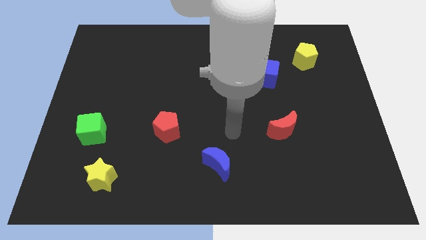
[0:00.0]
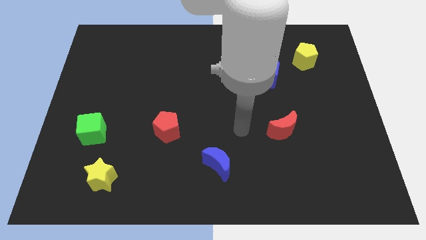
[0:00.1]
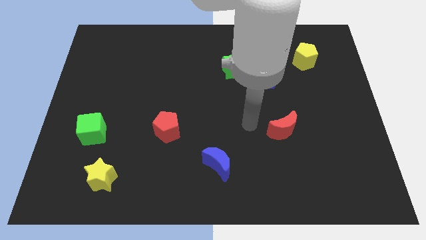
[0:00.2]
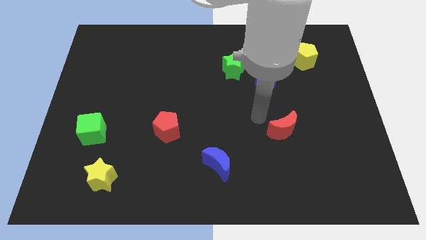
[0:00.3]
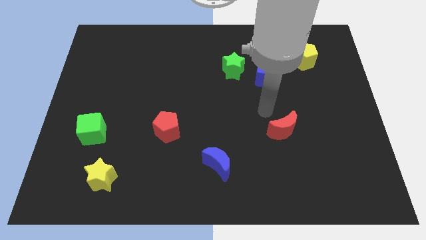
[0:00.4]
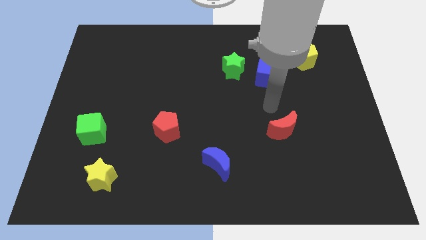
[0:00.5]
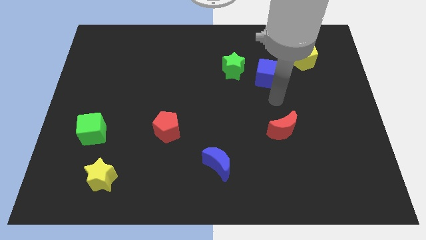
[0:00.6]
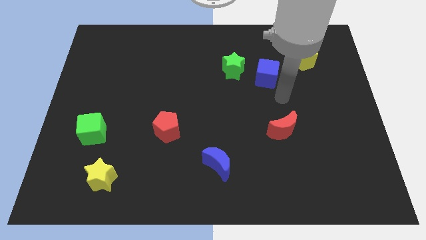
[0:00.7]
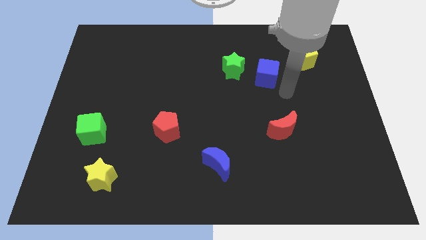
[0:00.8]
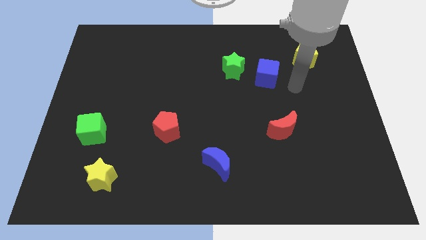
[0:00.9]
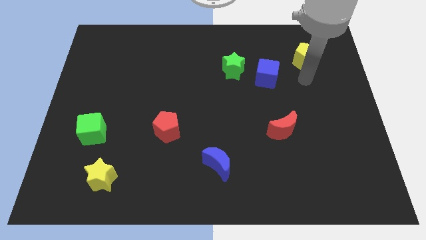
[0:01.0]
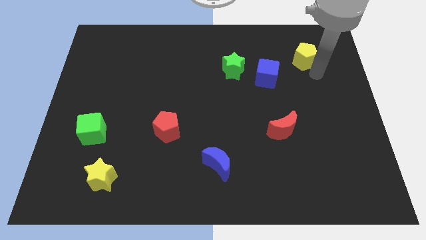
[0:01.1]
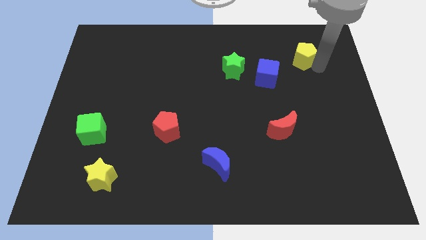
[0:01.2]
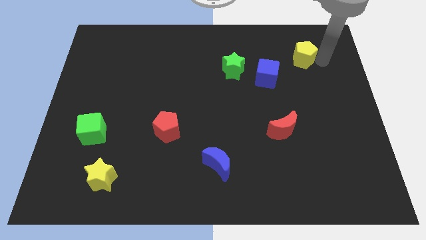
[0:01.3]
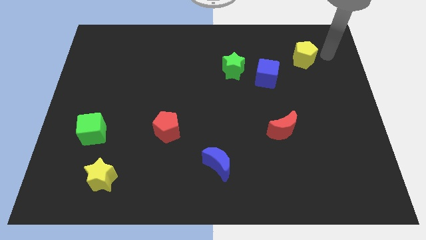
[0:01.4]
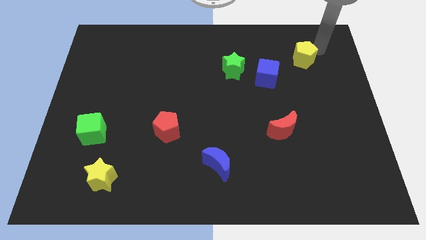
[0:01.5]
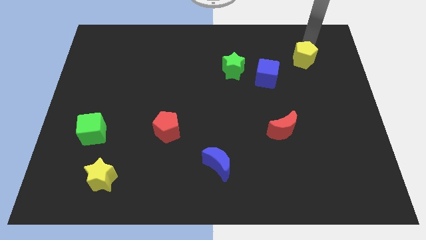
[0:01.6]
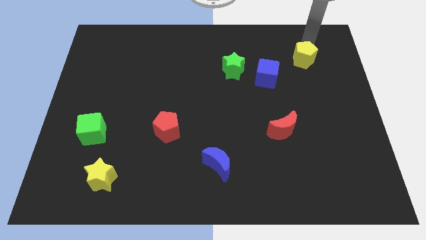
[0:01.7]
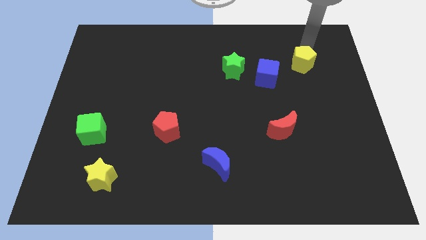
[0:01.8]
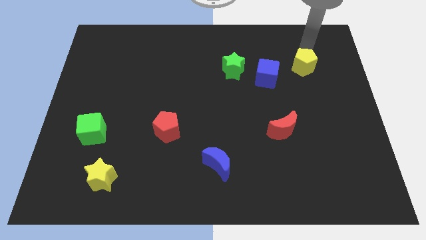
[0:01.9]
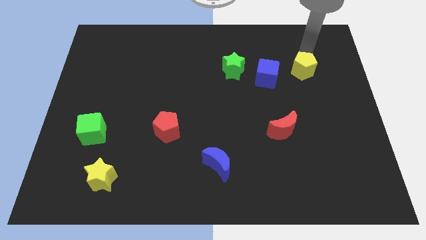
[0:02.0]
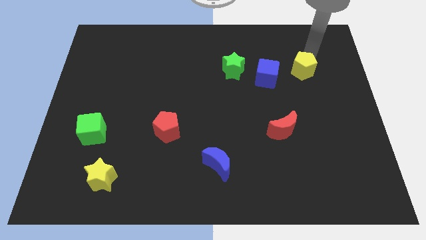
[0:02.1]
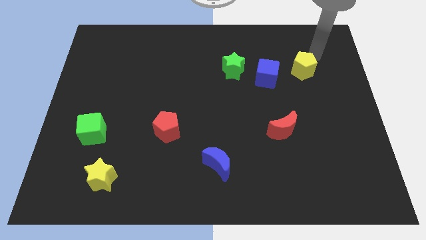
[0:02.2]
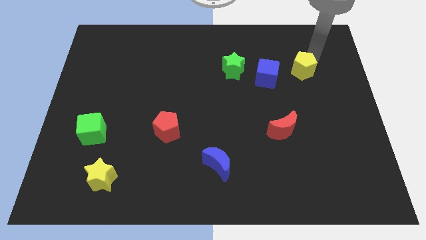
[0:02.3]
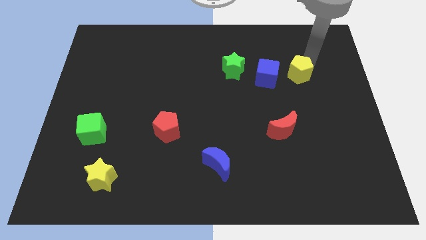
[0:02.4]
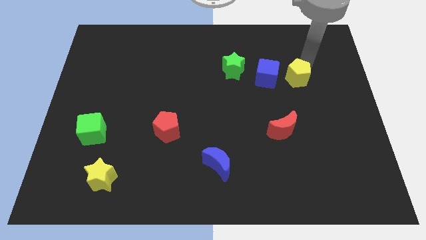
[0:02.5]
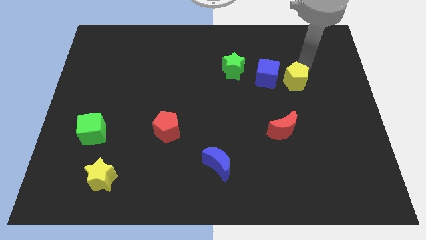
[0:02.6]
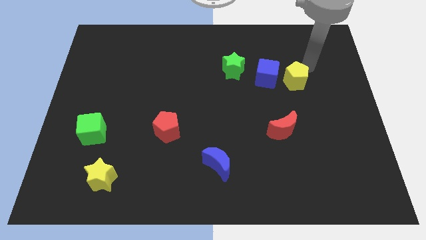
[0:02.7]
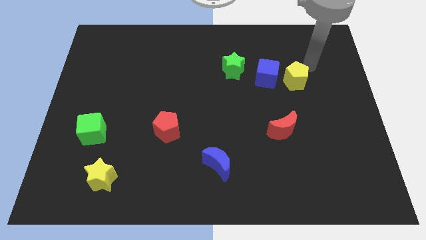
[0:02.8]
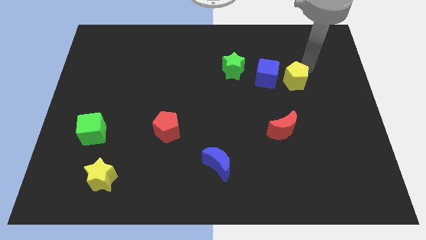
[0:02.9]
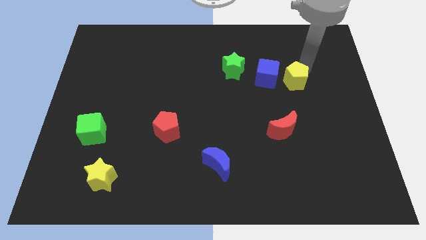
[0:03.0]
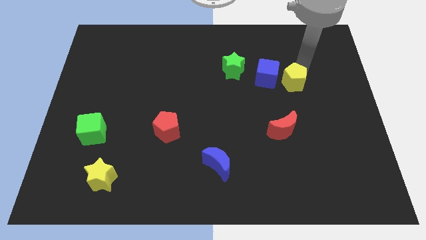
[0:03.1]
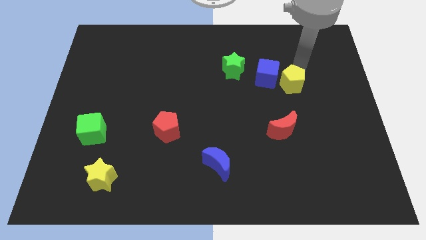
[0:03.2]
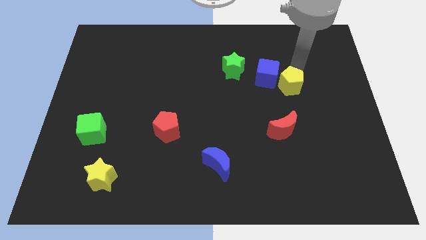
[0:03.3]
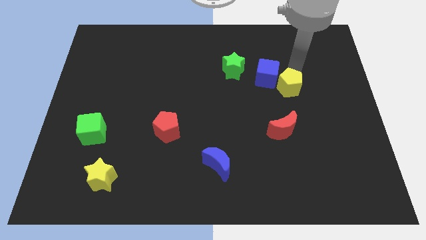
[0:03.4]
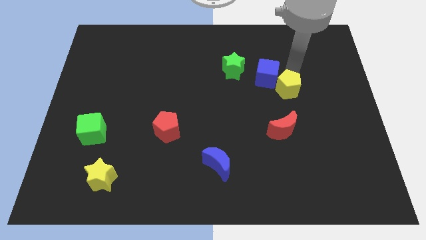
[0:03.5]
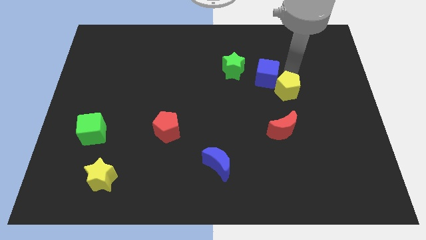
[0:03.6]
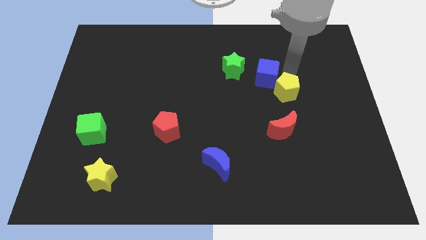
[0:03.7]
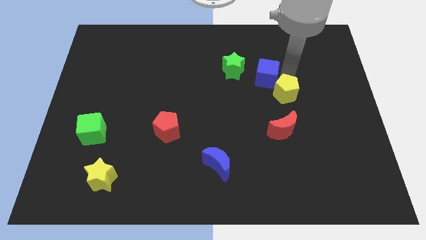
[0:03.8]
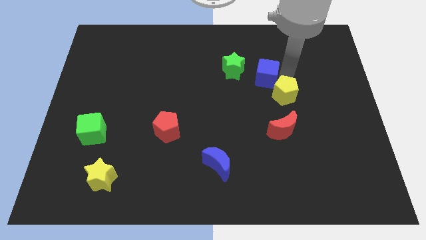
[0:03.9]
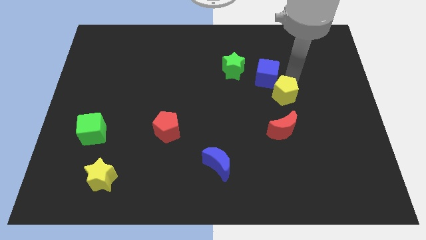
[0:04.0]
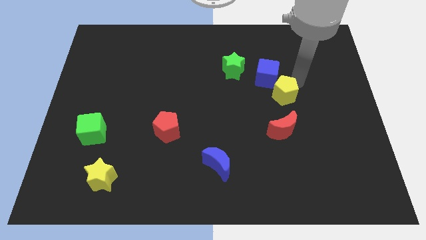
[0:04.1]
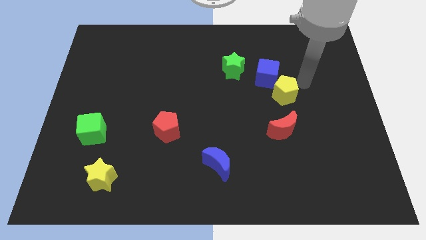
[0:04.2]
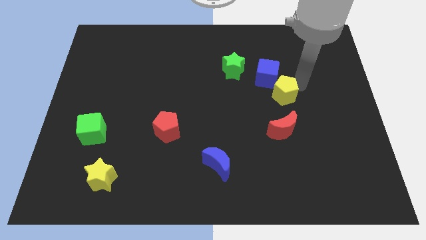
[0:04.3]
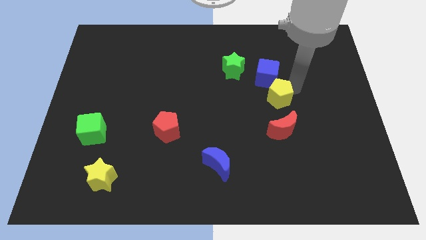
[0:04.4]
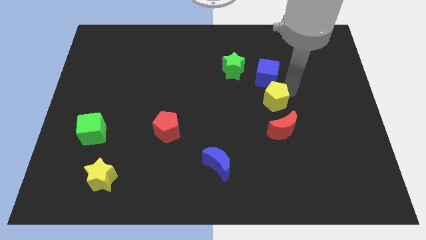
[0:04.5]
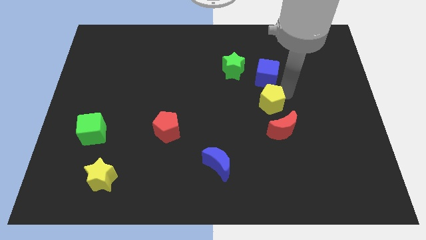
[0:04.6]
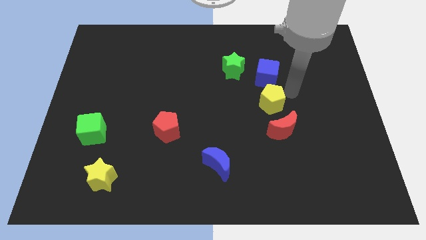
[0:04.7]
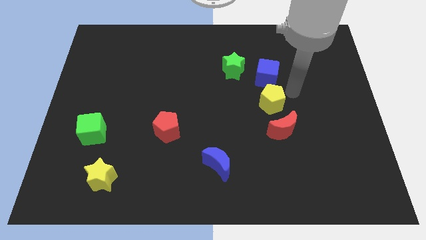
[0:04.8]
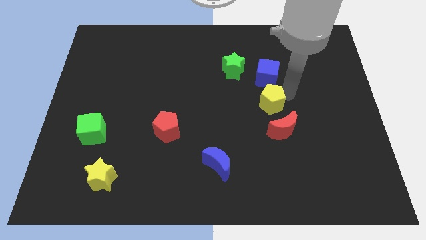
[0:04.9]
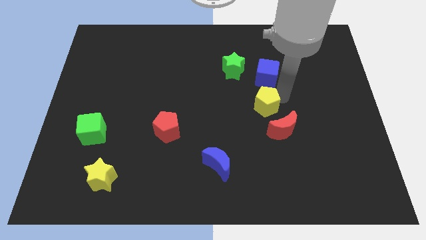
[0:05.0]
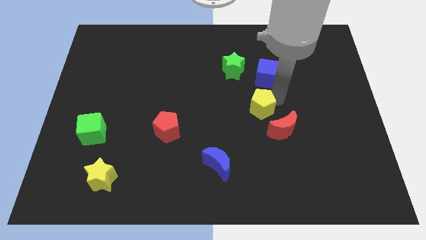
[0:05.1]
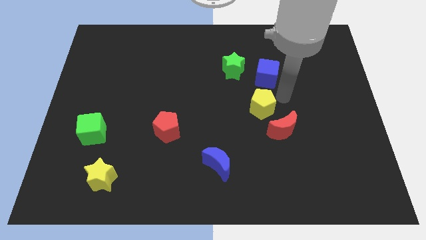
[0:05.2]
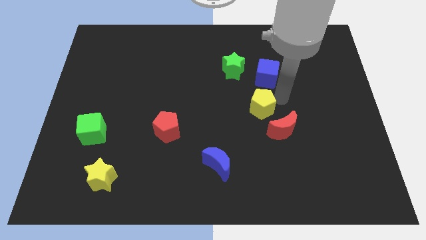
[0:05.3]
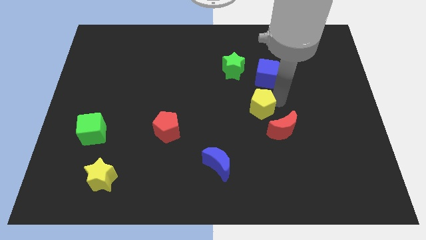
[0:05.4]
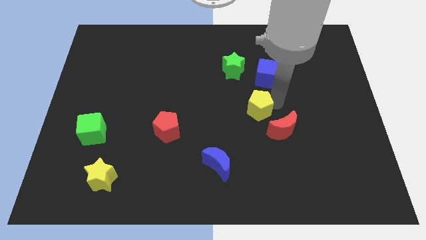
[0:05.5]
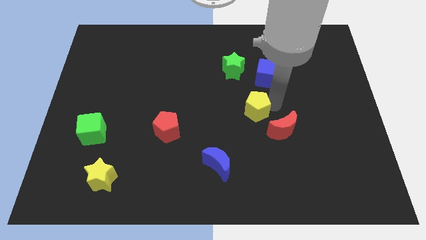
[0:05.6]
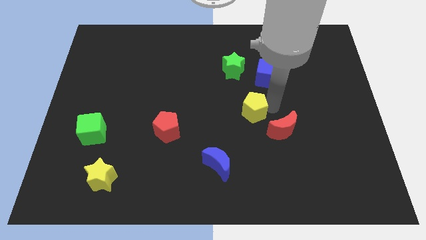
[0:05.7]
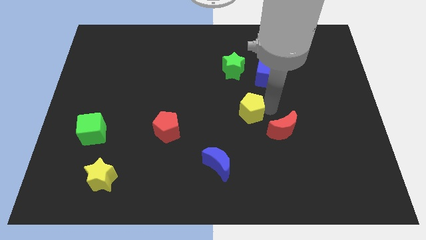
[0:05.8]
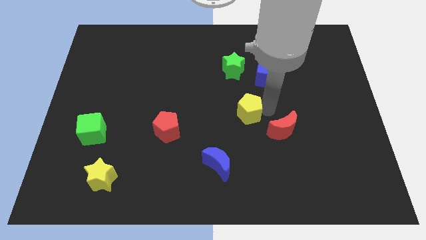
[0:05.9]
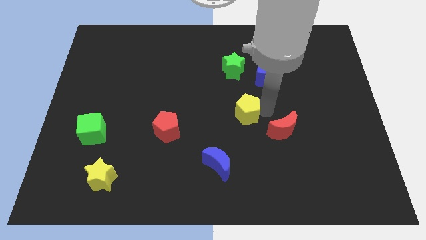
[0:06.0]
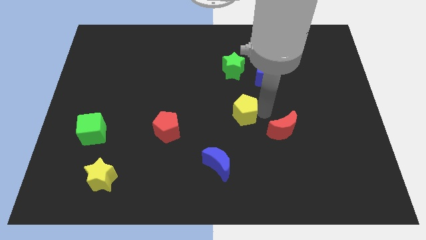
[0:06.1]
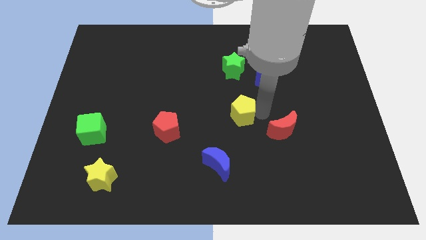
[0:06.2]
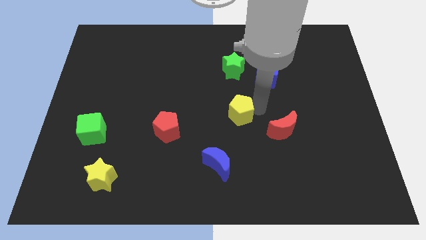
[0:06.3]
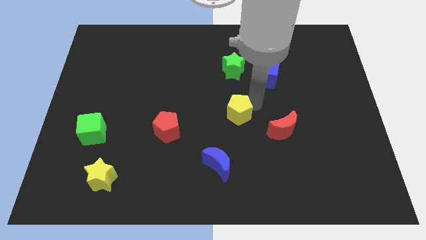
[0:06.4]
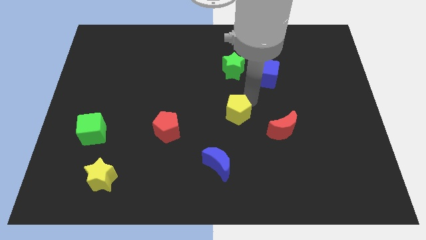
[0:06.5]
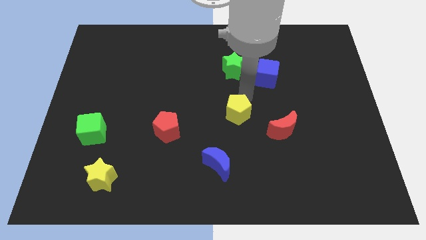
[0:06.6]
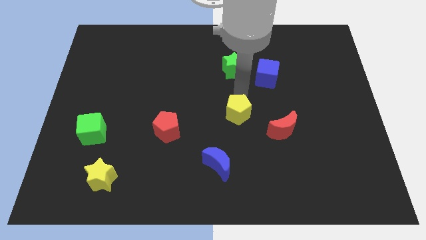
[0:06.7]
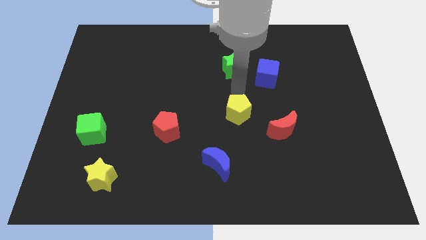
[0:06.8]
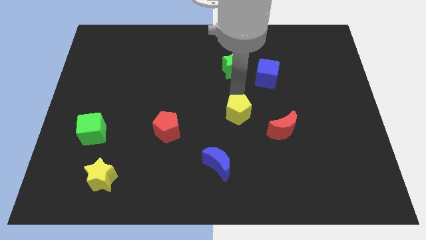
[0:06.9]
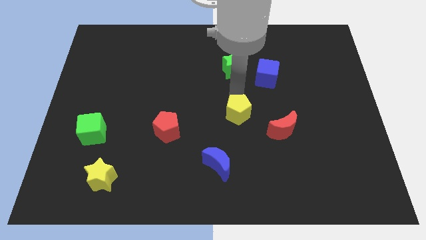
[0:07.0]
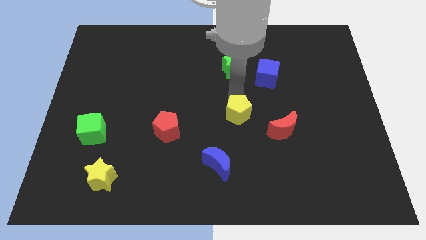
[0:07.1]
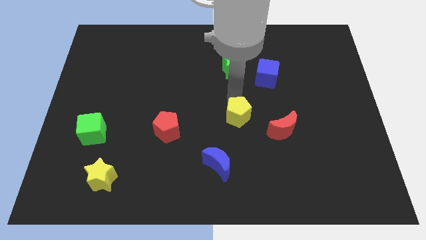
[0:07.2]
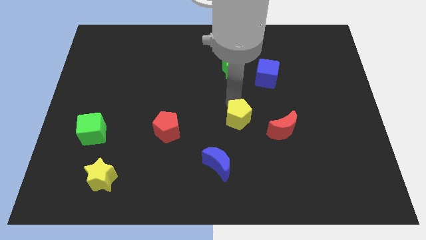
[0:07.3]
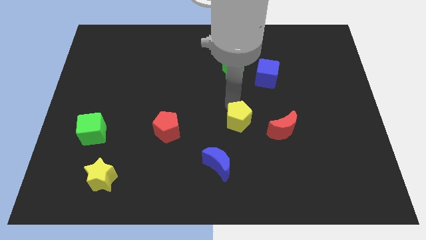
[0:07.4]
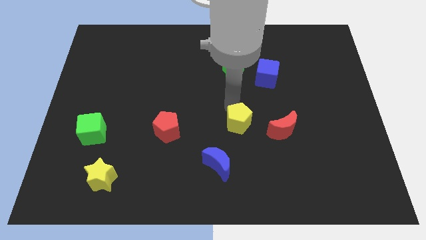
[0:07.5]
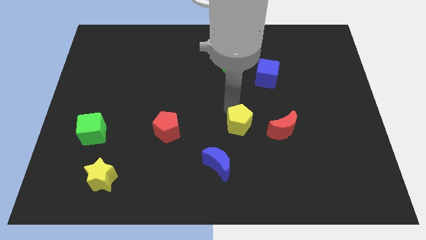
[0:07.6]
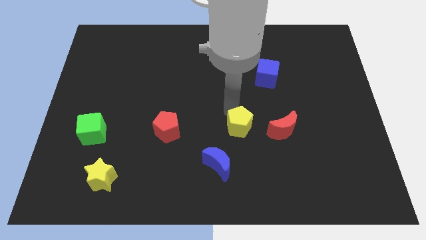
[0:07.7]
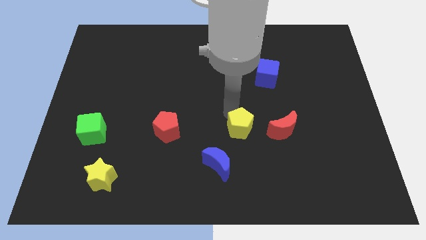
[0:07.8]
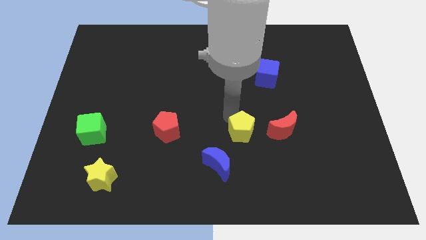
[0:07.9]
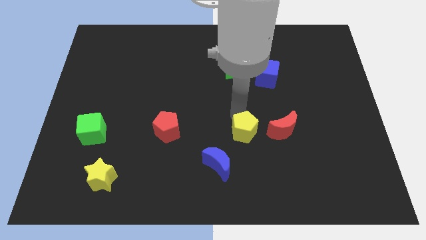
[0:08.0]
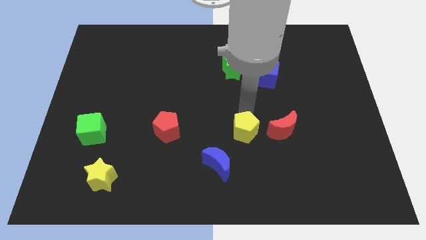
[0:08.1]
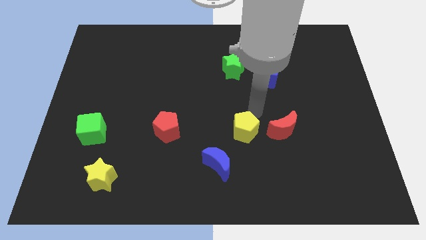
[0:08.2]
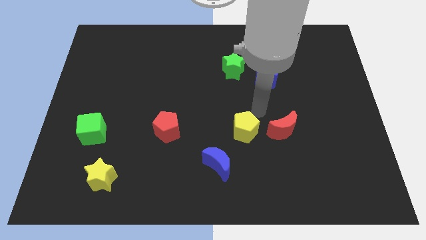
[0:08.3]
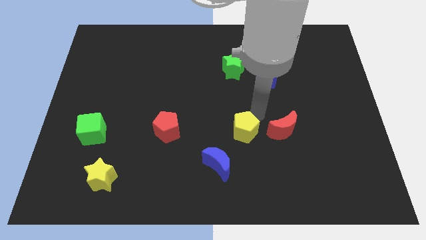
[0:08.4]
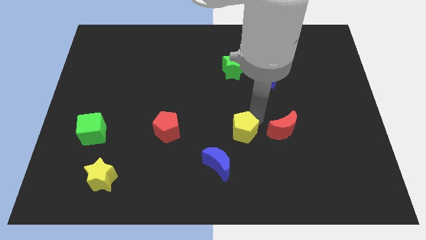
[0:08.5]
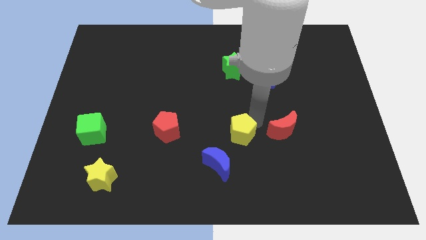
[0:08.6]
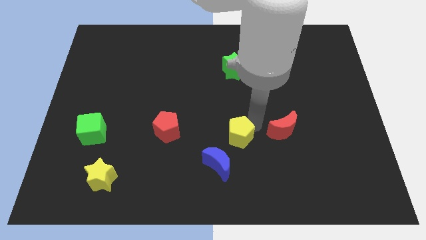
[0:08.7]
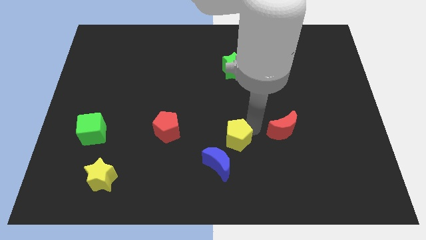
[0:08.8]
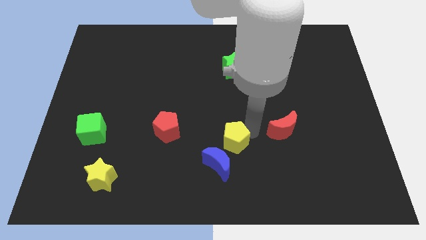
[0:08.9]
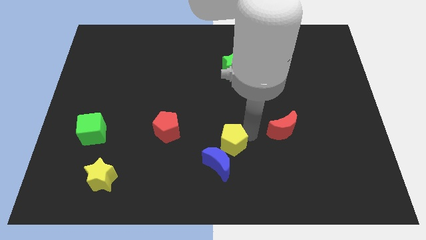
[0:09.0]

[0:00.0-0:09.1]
push the yellow pentagon towards the blue moon
